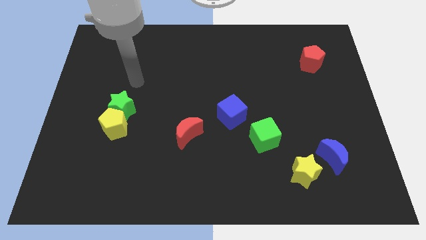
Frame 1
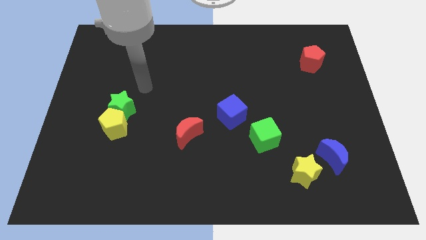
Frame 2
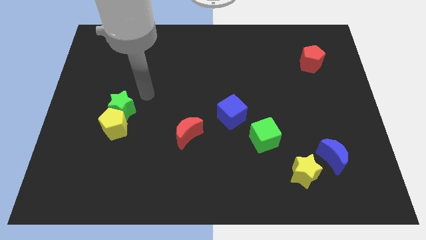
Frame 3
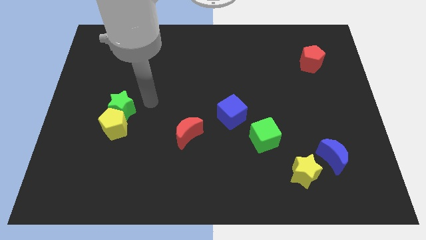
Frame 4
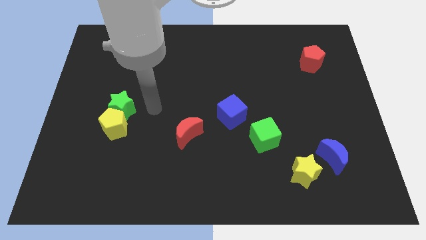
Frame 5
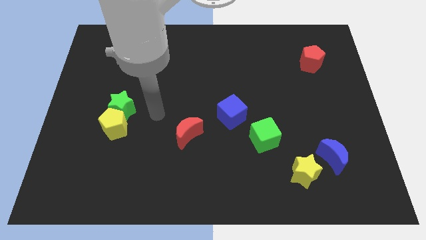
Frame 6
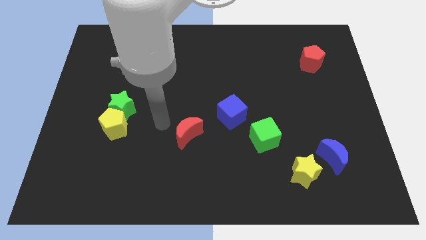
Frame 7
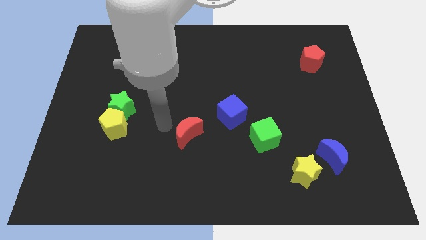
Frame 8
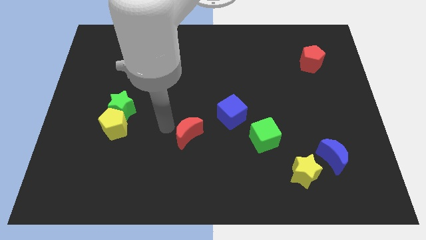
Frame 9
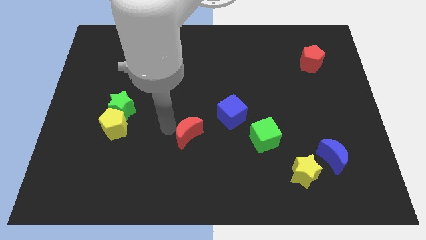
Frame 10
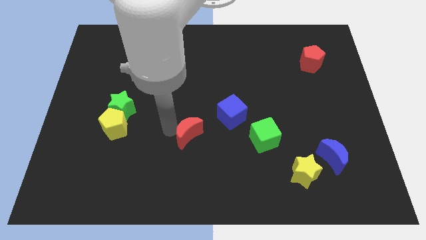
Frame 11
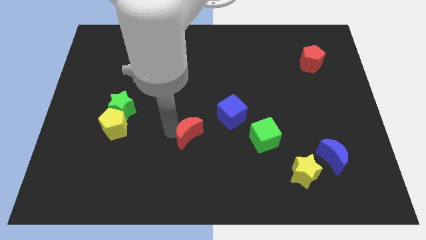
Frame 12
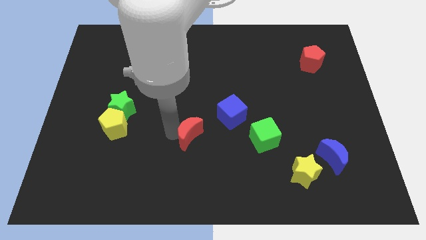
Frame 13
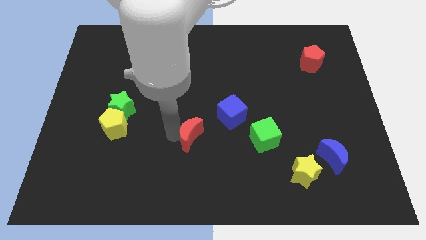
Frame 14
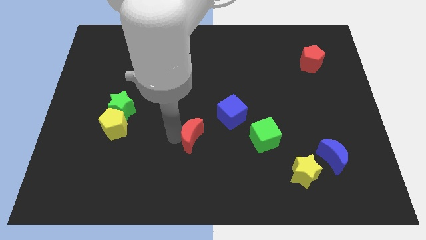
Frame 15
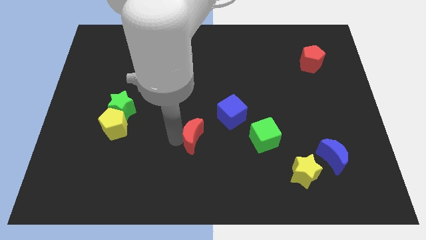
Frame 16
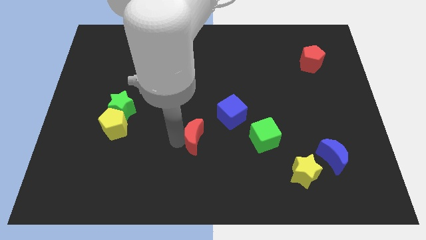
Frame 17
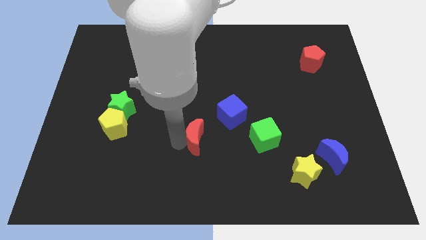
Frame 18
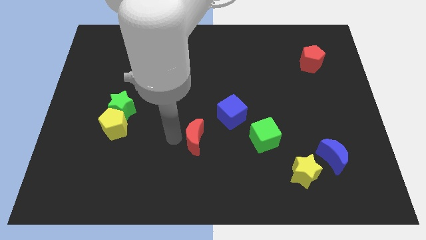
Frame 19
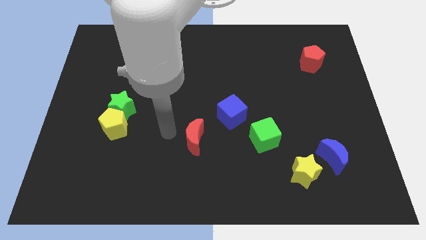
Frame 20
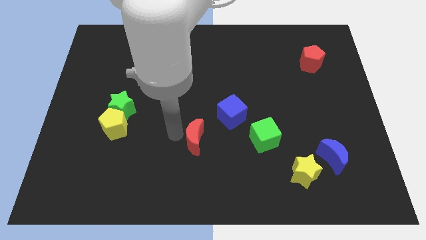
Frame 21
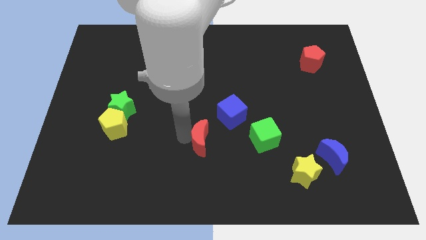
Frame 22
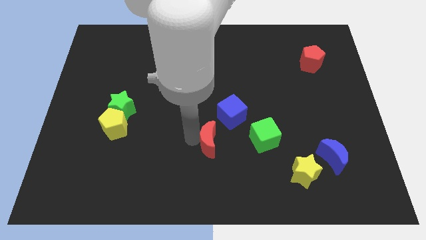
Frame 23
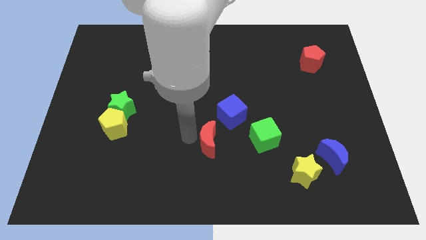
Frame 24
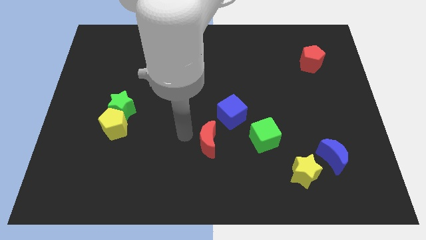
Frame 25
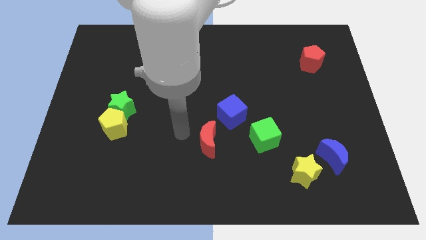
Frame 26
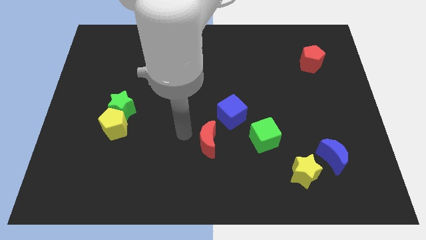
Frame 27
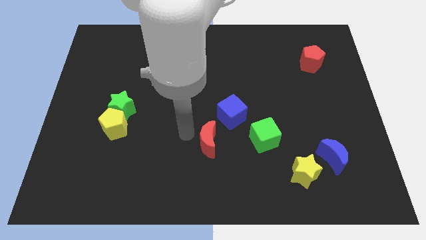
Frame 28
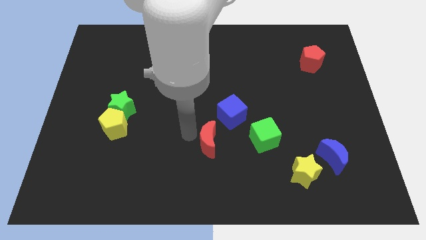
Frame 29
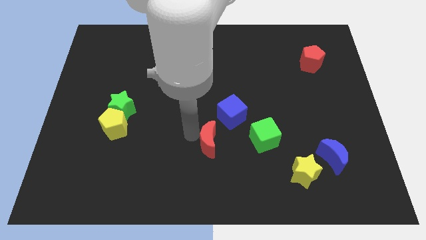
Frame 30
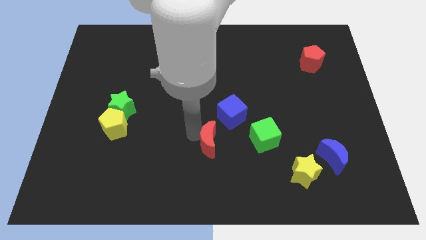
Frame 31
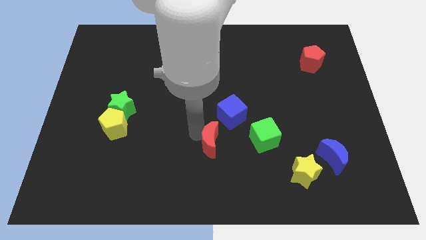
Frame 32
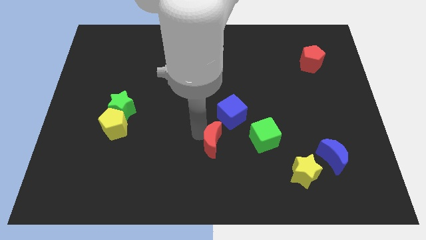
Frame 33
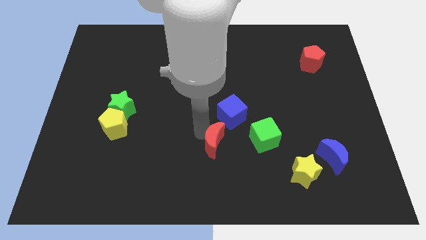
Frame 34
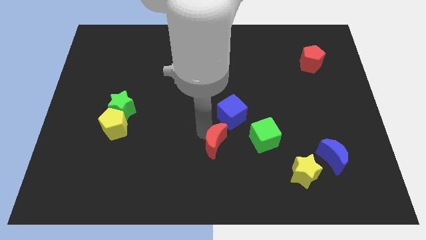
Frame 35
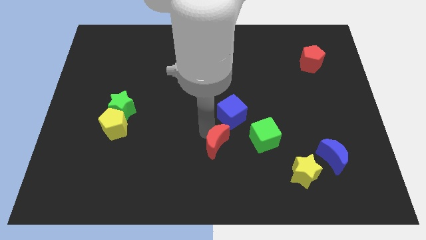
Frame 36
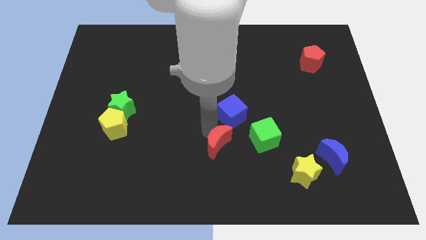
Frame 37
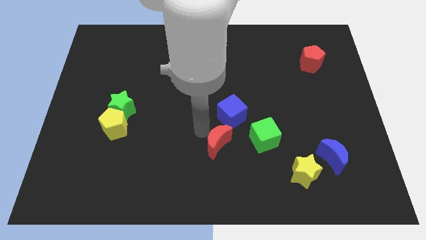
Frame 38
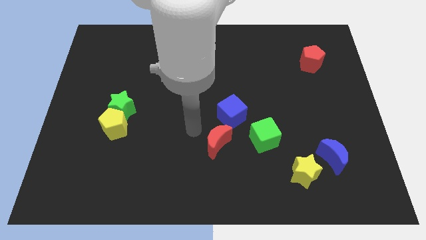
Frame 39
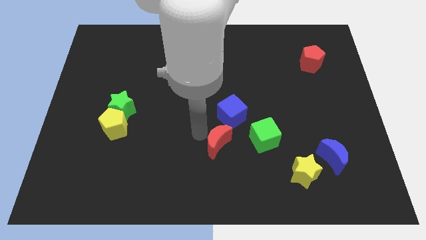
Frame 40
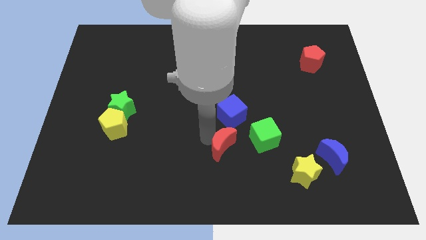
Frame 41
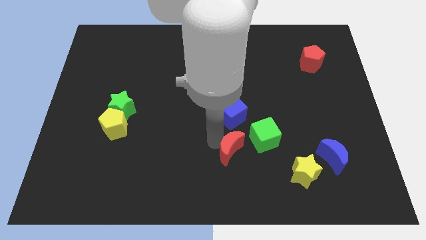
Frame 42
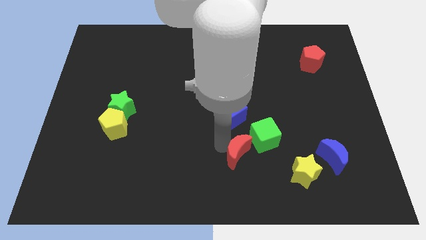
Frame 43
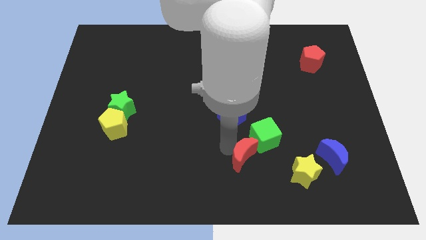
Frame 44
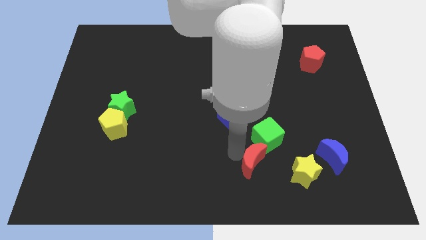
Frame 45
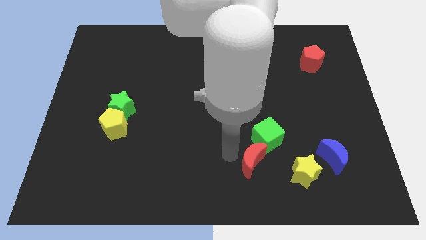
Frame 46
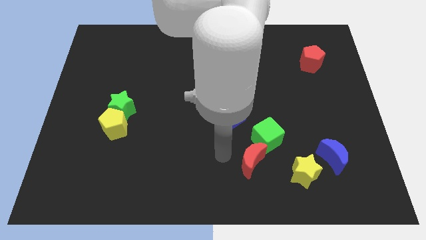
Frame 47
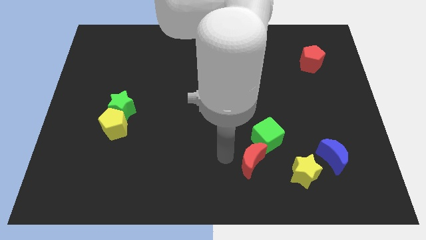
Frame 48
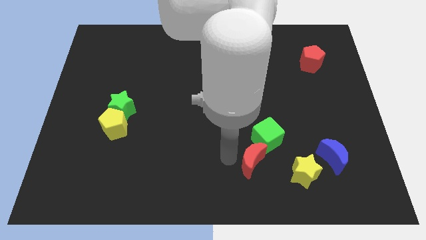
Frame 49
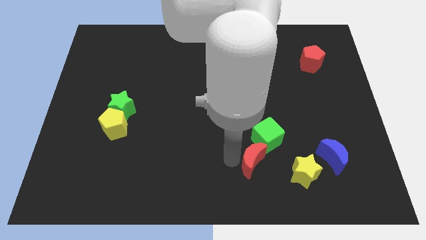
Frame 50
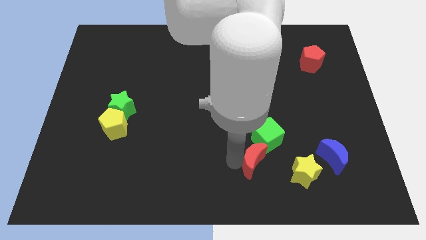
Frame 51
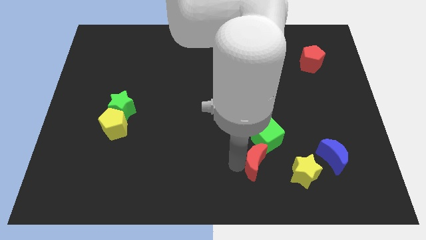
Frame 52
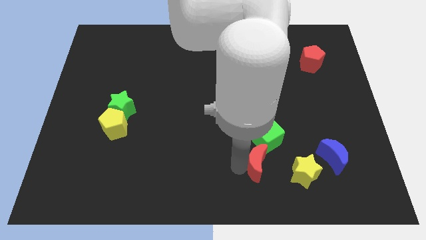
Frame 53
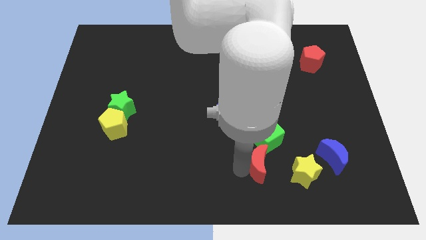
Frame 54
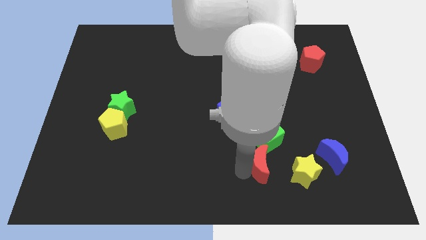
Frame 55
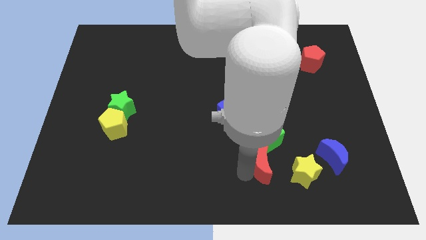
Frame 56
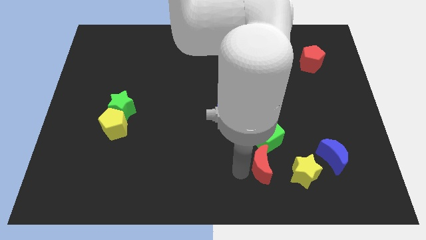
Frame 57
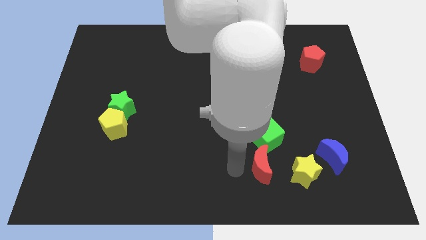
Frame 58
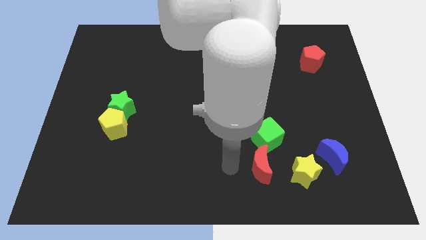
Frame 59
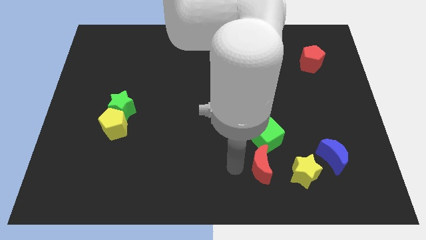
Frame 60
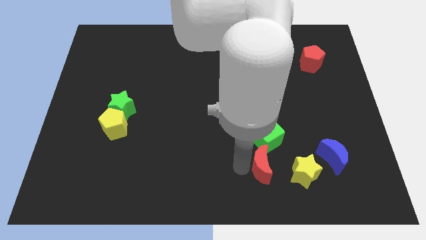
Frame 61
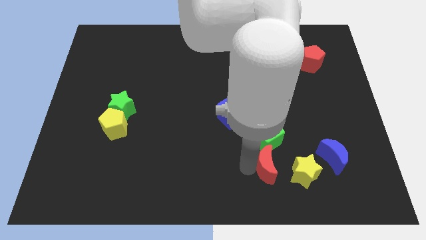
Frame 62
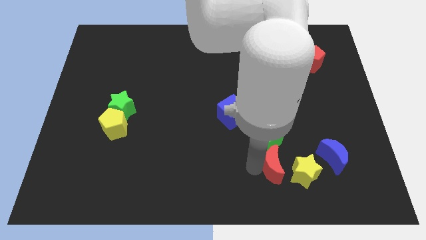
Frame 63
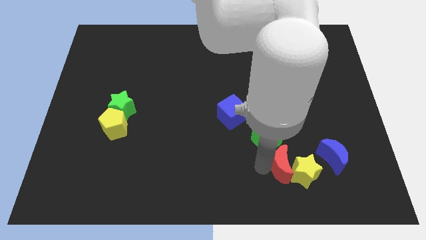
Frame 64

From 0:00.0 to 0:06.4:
put the red moon close to the yellow star

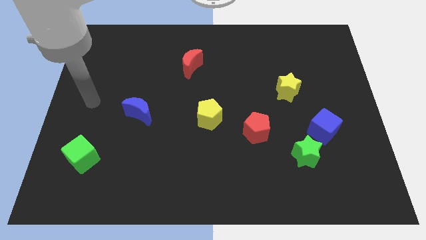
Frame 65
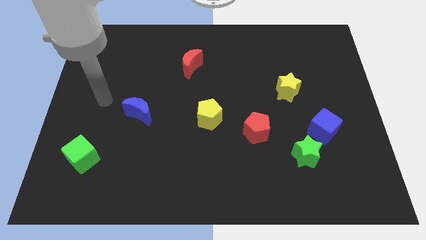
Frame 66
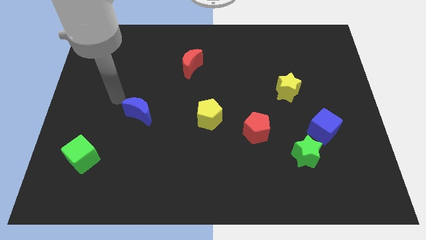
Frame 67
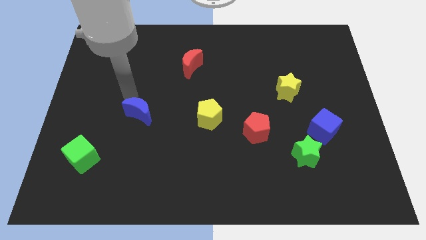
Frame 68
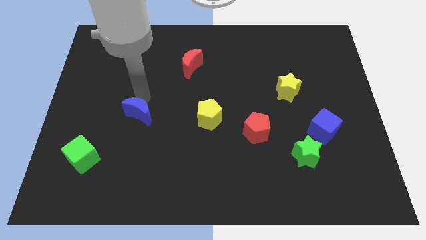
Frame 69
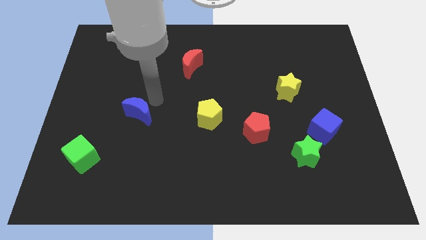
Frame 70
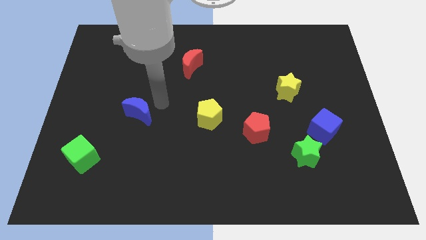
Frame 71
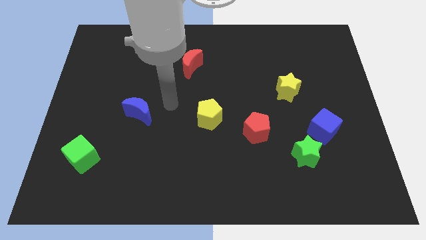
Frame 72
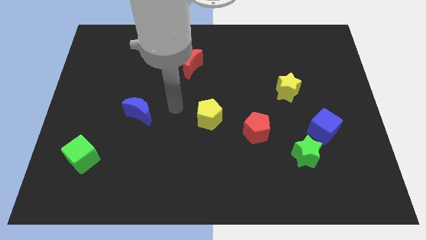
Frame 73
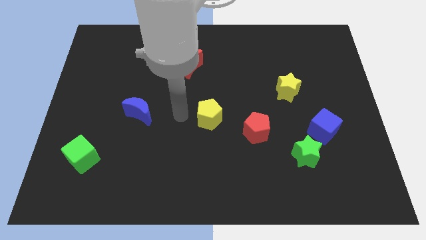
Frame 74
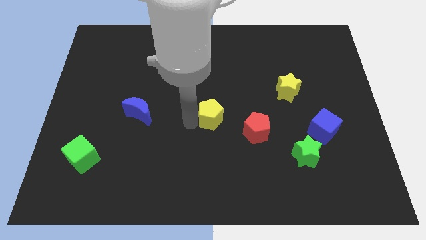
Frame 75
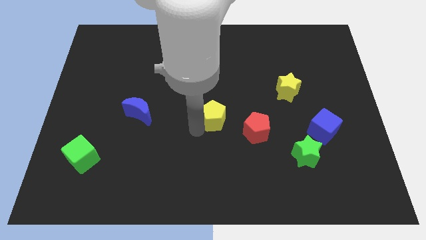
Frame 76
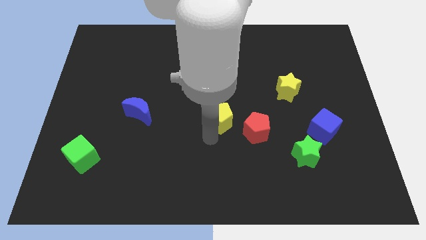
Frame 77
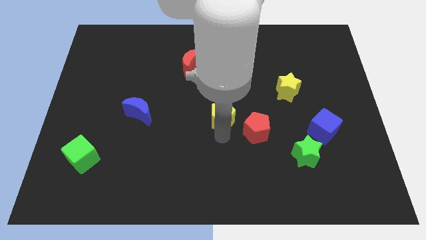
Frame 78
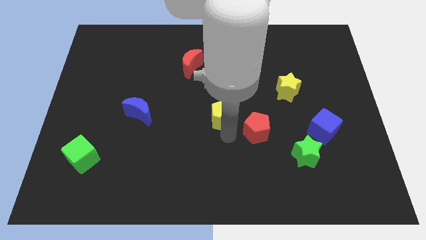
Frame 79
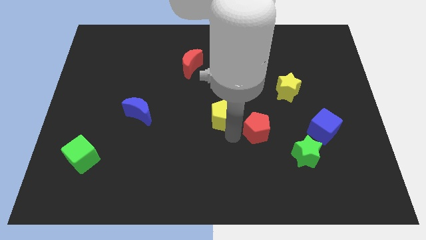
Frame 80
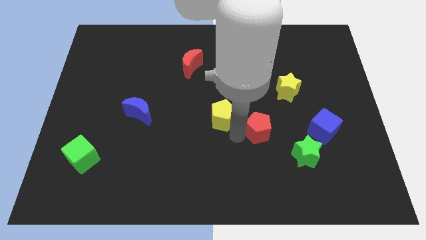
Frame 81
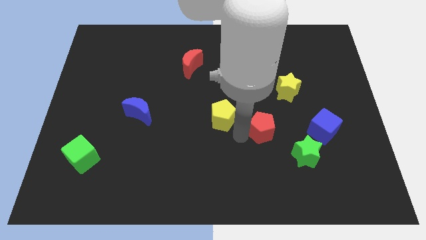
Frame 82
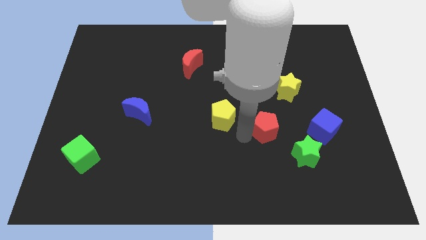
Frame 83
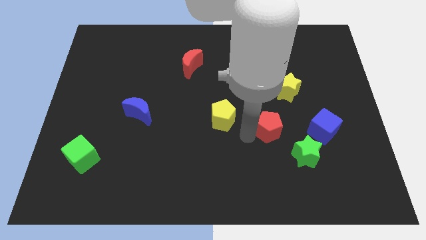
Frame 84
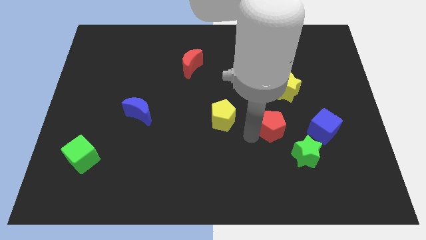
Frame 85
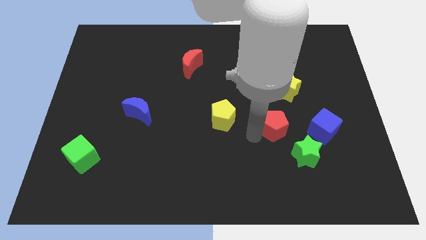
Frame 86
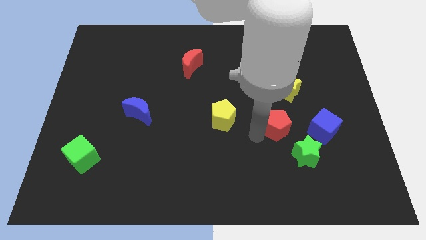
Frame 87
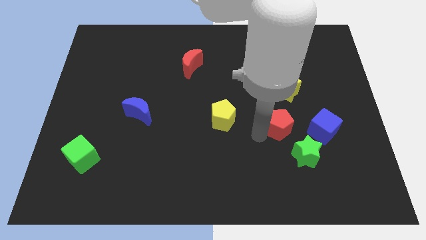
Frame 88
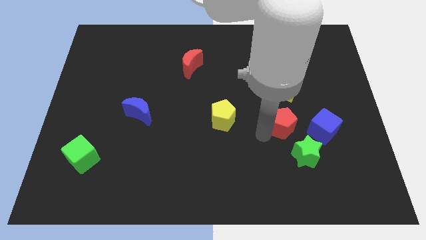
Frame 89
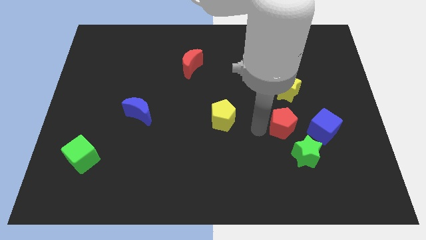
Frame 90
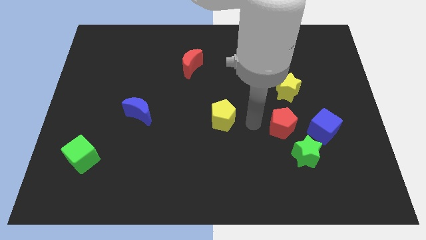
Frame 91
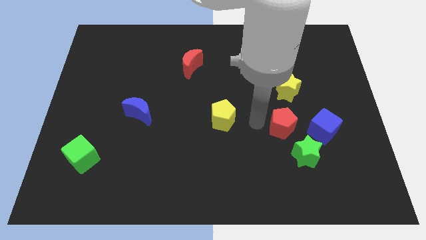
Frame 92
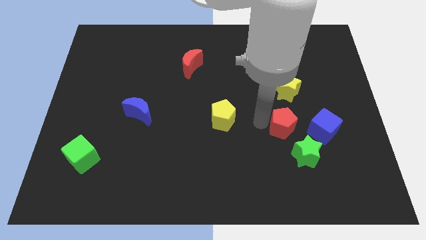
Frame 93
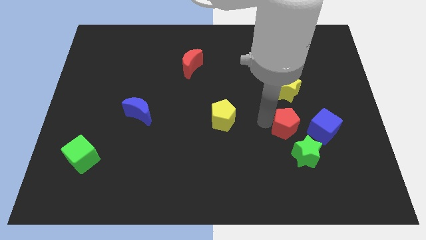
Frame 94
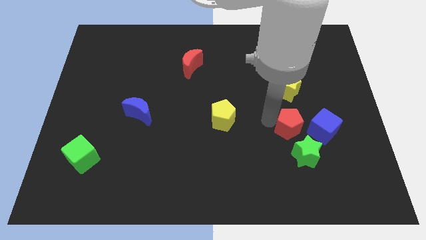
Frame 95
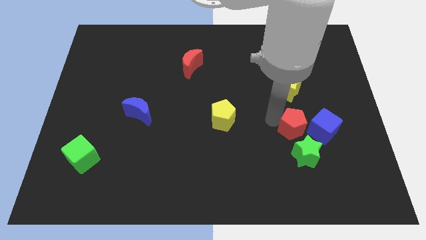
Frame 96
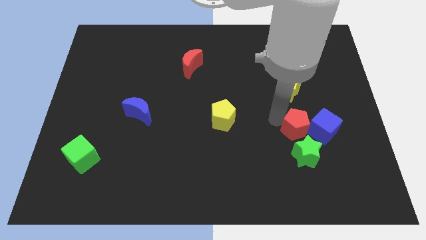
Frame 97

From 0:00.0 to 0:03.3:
slide the red pentagon close to the blue cube
